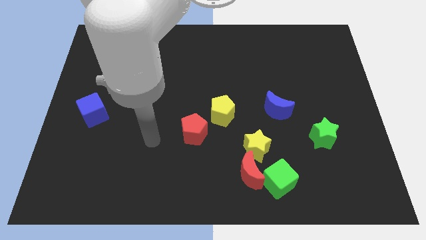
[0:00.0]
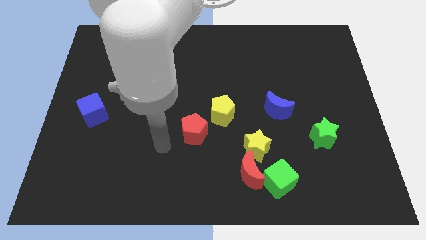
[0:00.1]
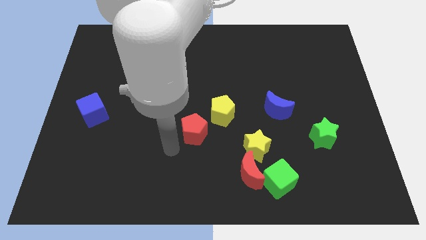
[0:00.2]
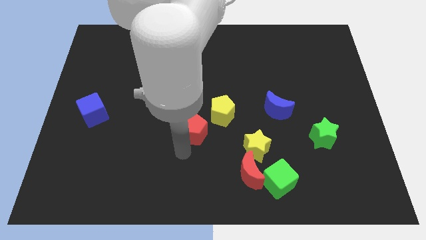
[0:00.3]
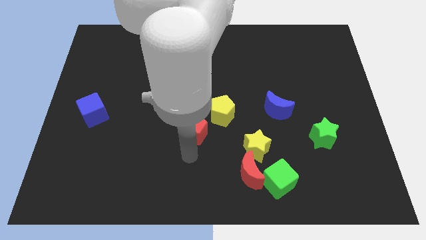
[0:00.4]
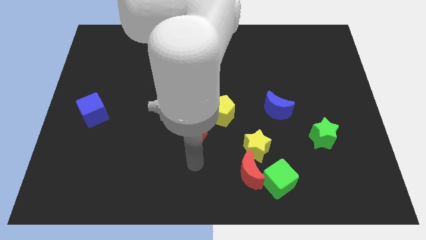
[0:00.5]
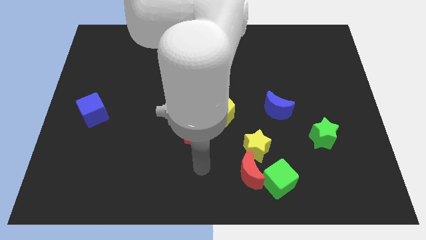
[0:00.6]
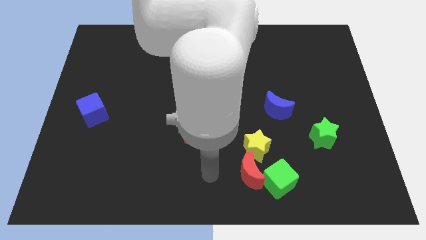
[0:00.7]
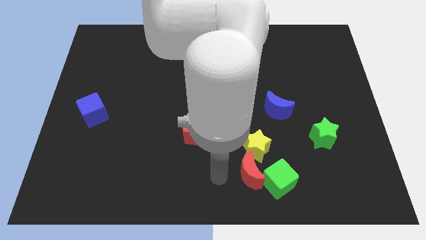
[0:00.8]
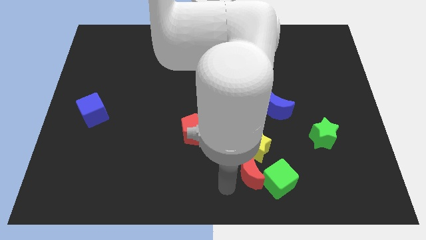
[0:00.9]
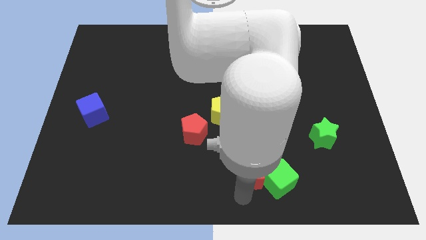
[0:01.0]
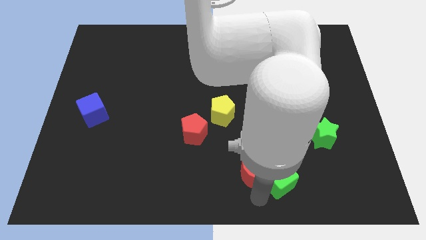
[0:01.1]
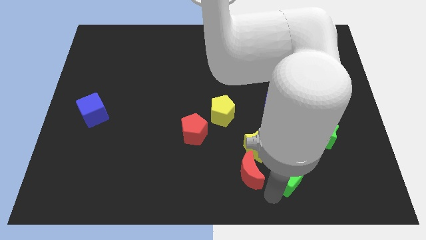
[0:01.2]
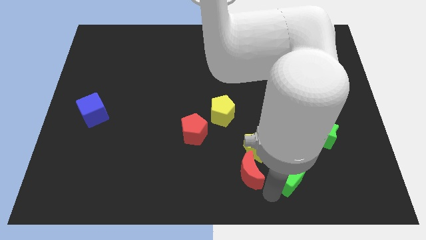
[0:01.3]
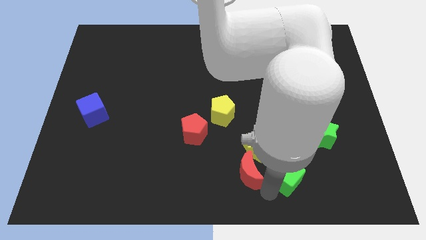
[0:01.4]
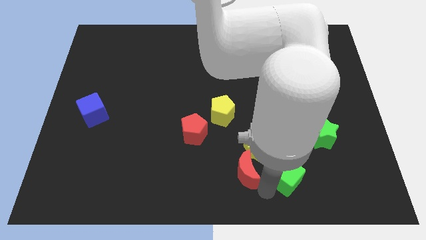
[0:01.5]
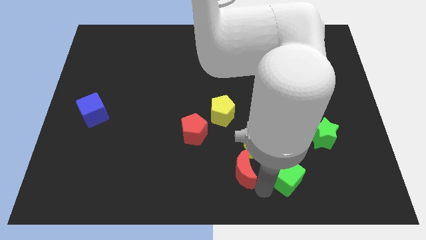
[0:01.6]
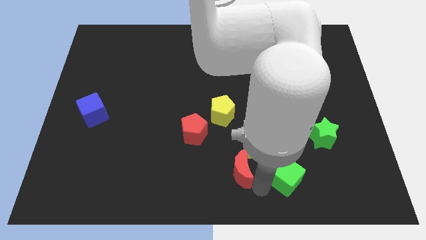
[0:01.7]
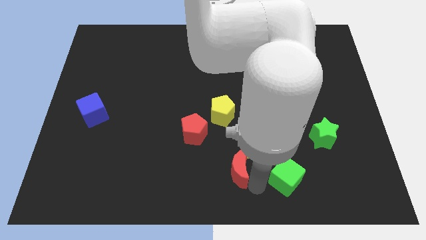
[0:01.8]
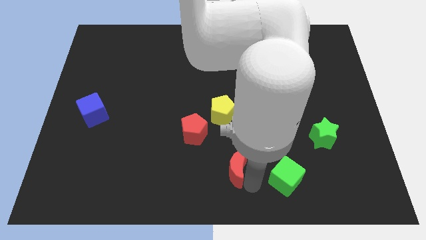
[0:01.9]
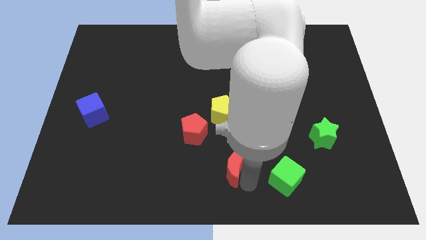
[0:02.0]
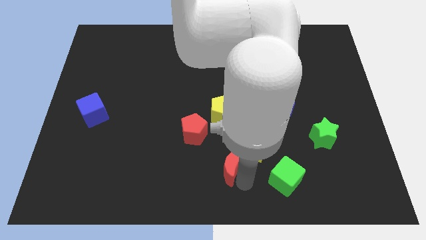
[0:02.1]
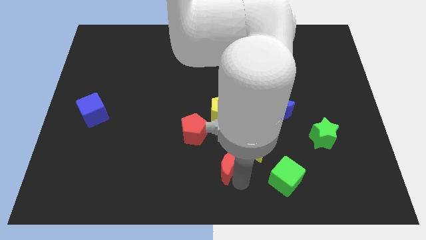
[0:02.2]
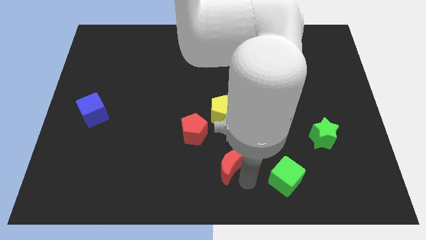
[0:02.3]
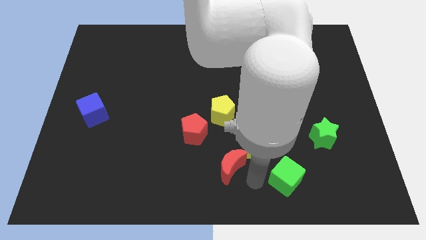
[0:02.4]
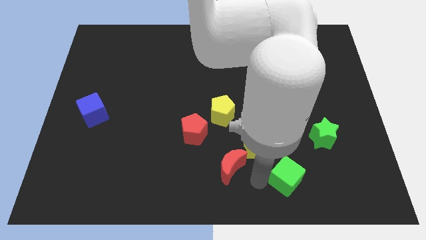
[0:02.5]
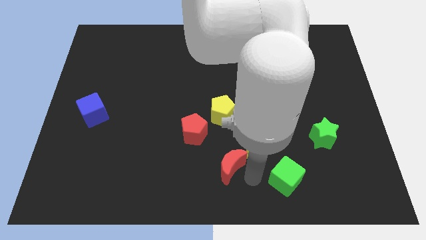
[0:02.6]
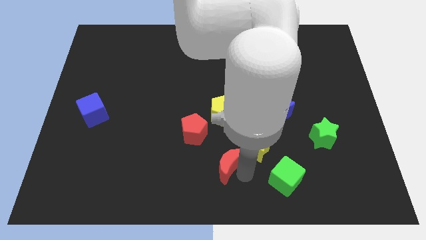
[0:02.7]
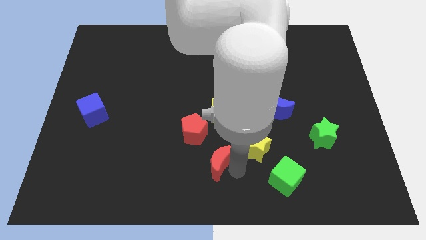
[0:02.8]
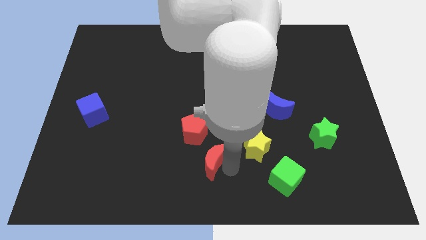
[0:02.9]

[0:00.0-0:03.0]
push the red moon slightly up and left

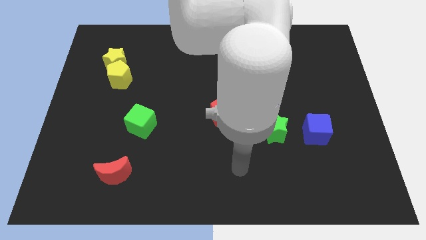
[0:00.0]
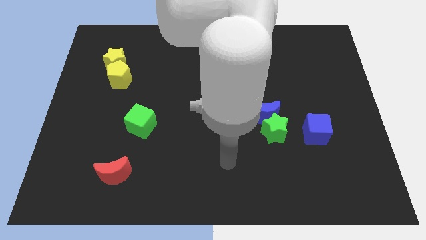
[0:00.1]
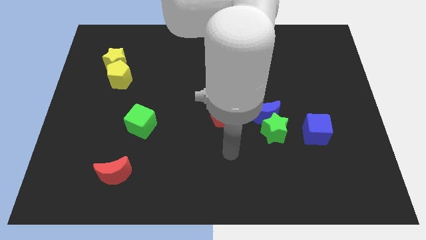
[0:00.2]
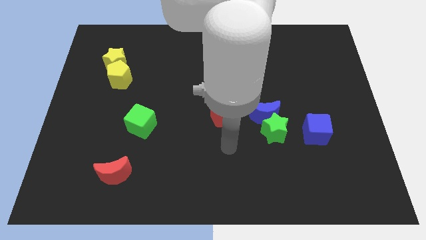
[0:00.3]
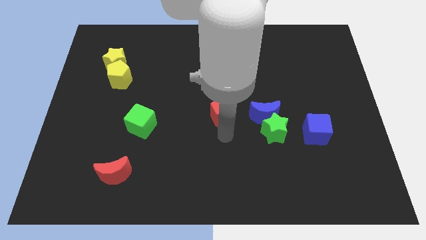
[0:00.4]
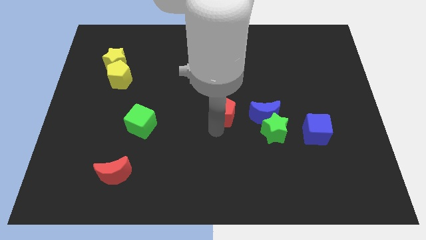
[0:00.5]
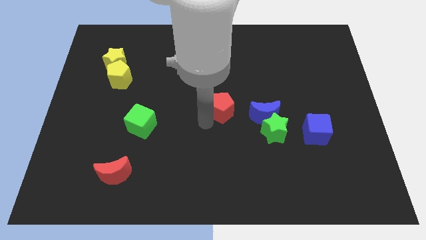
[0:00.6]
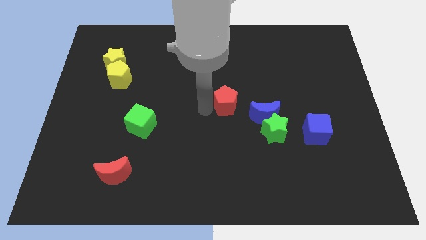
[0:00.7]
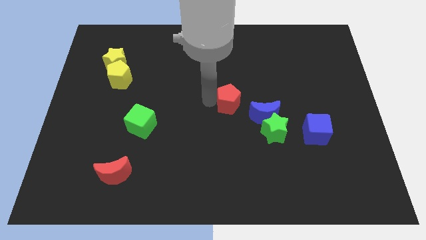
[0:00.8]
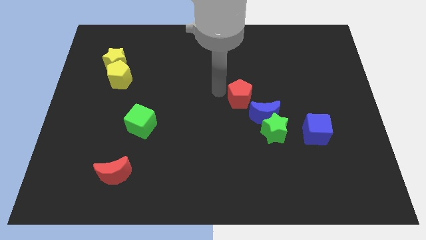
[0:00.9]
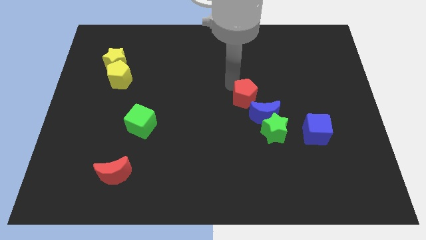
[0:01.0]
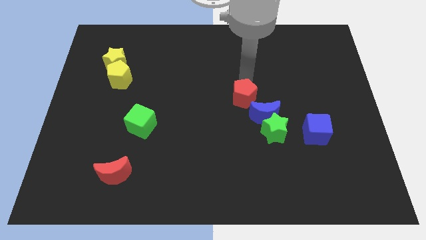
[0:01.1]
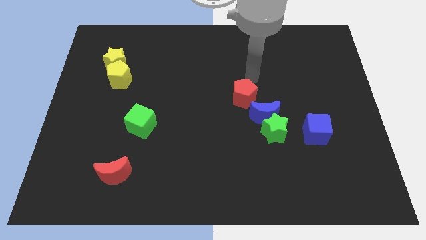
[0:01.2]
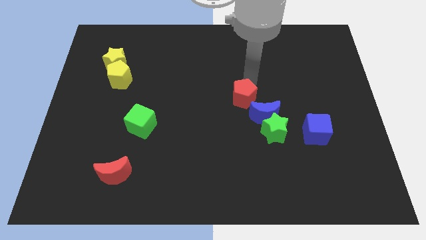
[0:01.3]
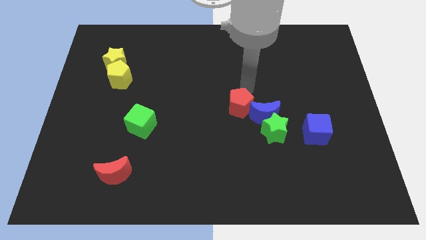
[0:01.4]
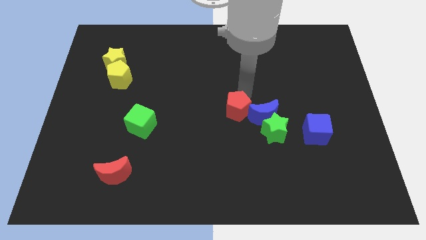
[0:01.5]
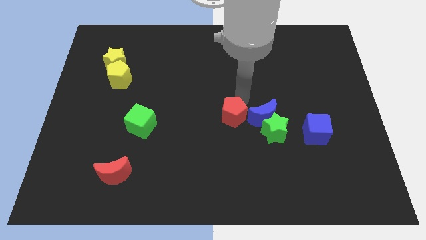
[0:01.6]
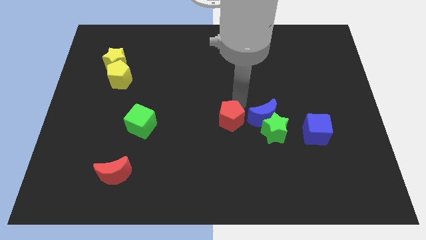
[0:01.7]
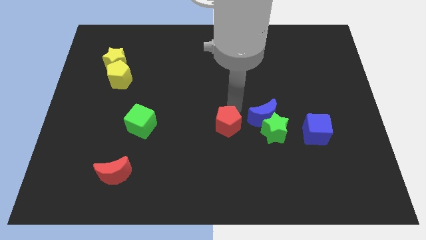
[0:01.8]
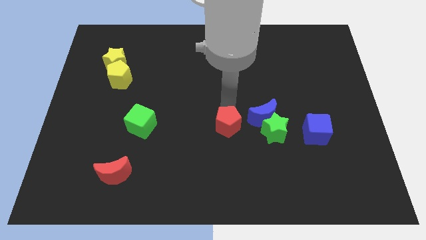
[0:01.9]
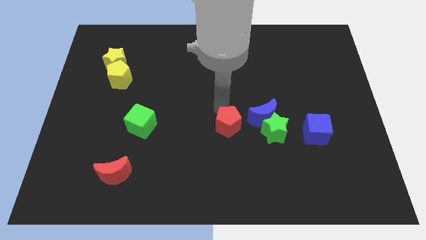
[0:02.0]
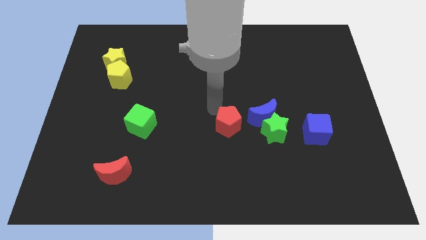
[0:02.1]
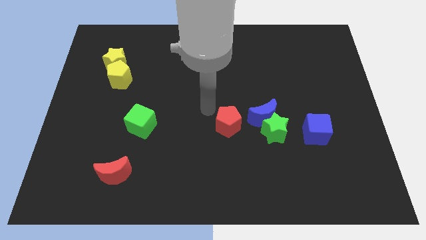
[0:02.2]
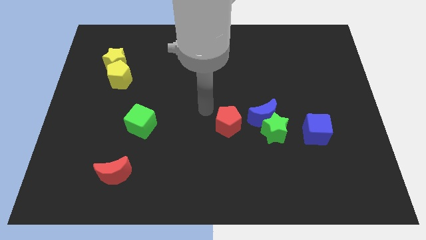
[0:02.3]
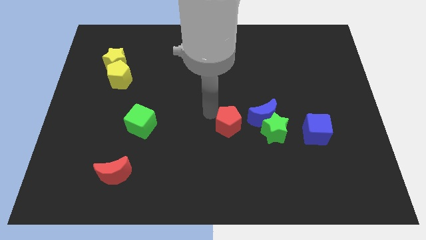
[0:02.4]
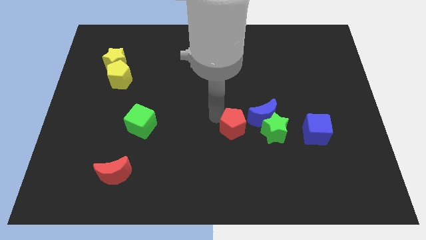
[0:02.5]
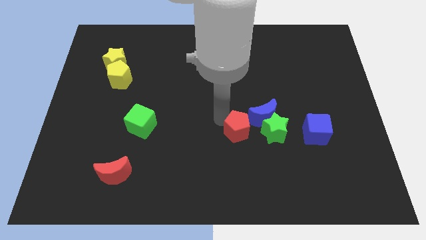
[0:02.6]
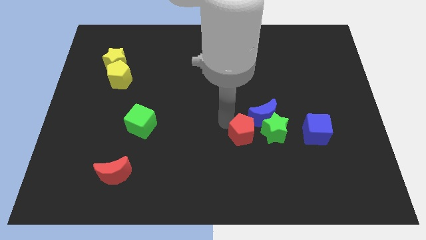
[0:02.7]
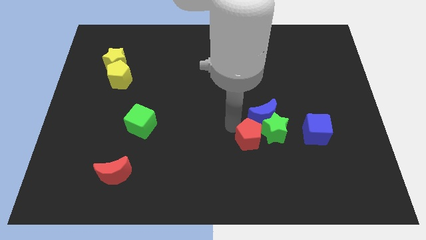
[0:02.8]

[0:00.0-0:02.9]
slightly slide the red pentagon diagonally down and to the right

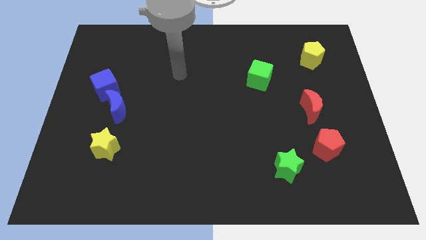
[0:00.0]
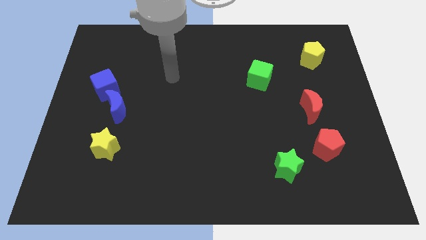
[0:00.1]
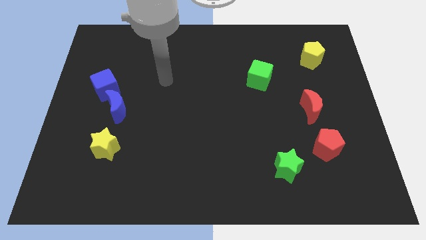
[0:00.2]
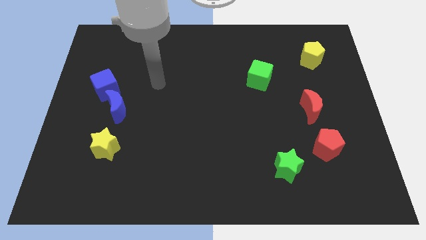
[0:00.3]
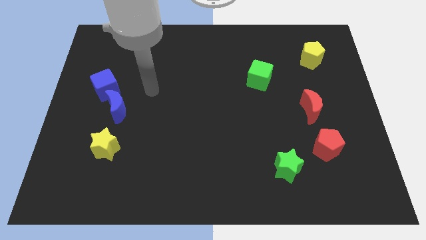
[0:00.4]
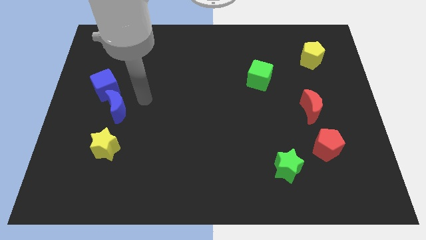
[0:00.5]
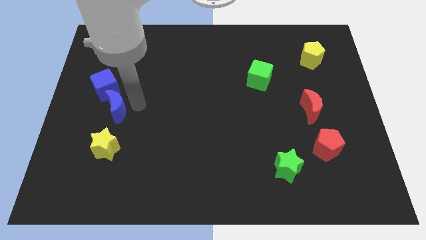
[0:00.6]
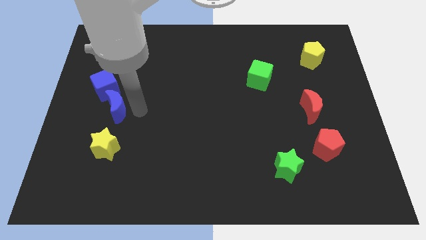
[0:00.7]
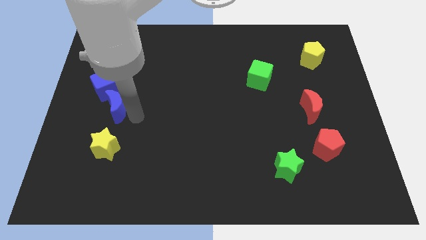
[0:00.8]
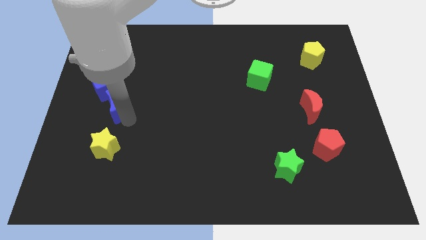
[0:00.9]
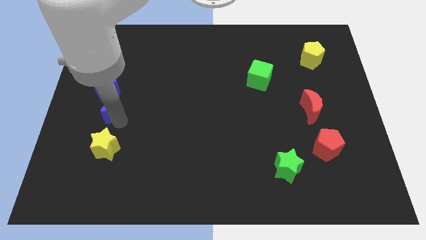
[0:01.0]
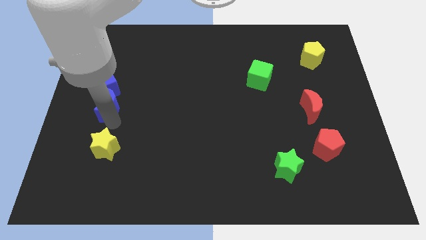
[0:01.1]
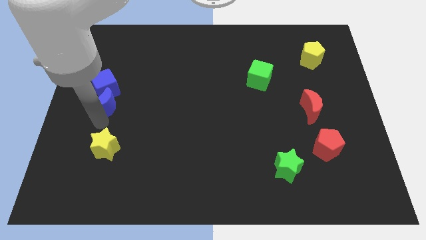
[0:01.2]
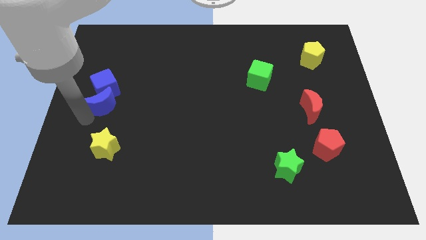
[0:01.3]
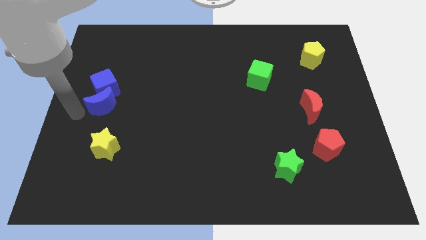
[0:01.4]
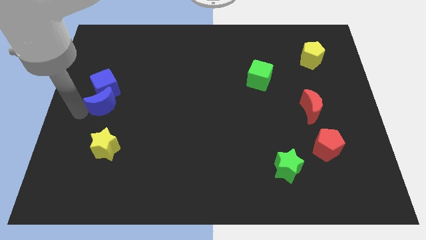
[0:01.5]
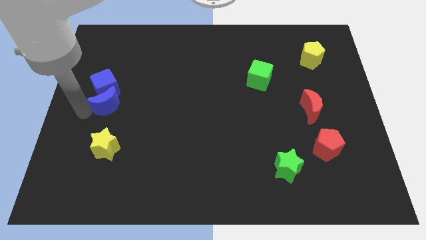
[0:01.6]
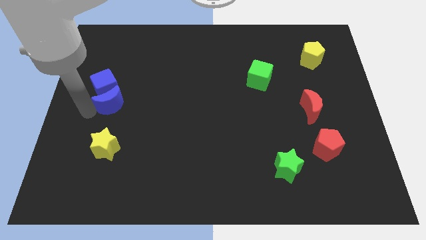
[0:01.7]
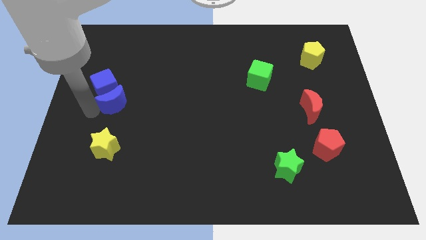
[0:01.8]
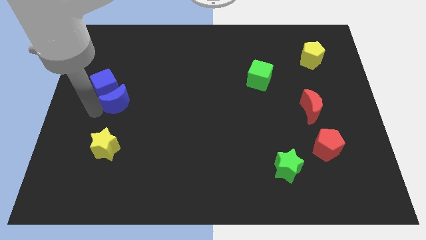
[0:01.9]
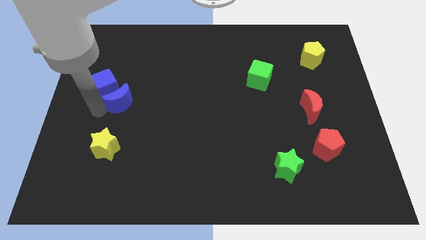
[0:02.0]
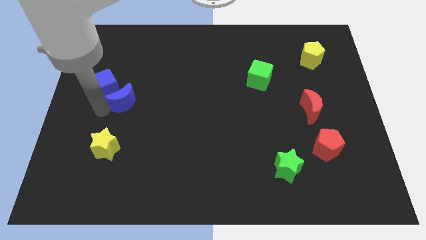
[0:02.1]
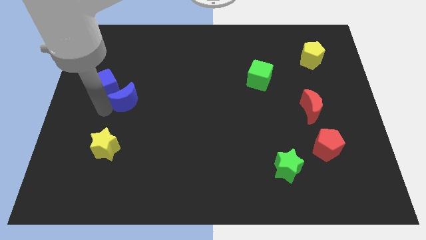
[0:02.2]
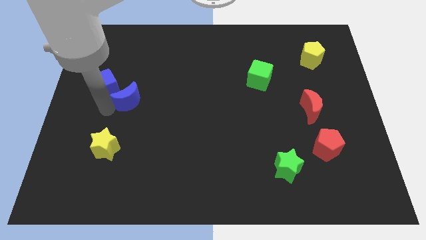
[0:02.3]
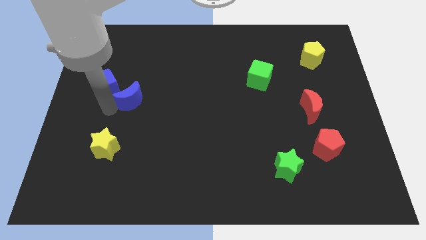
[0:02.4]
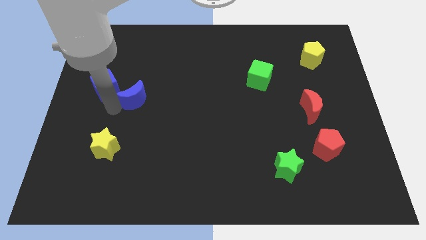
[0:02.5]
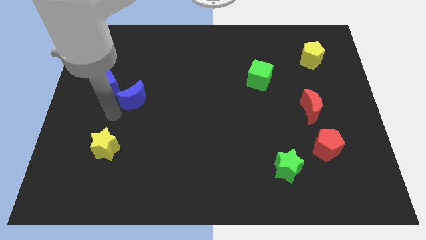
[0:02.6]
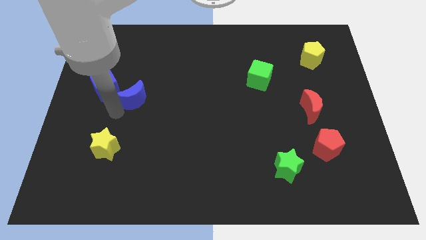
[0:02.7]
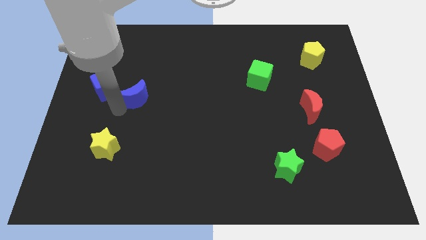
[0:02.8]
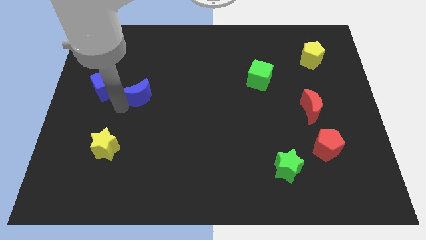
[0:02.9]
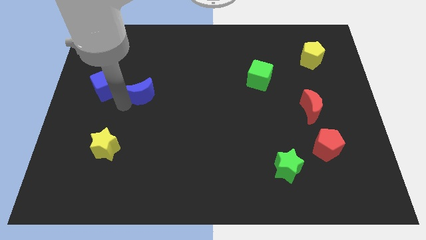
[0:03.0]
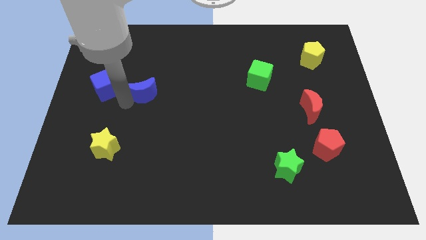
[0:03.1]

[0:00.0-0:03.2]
slightly push the blue moon diagonally up and right
